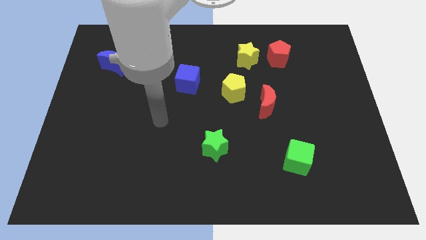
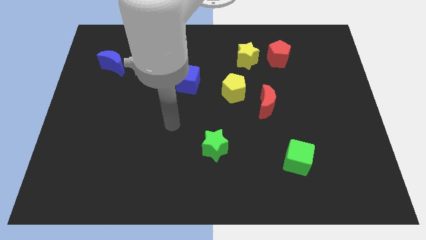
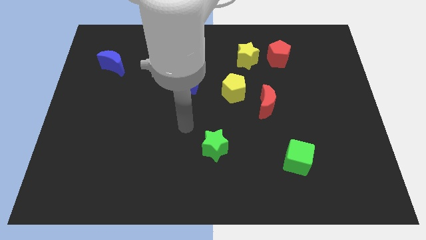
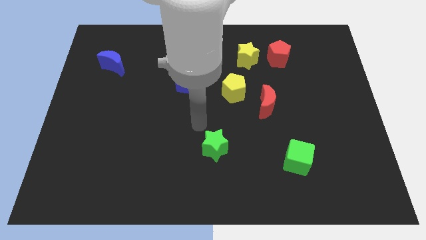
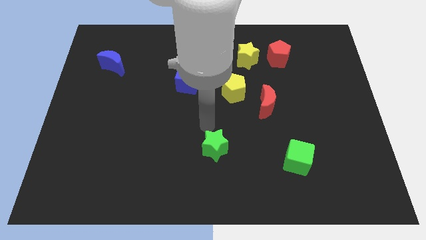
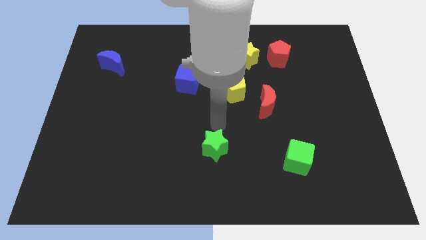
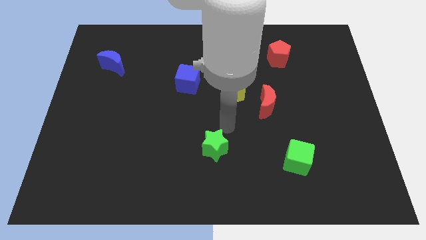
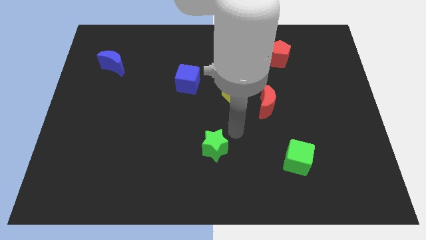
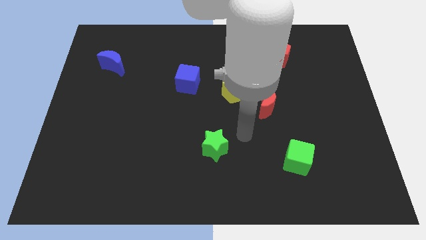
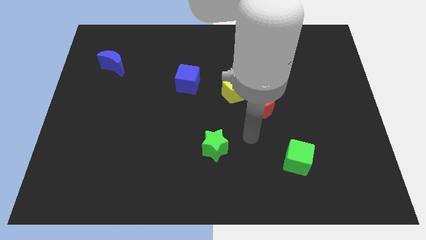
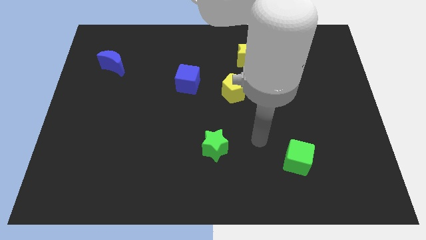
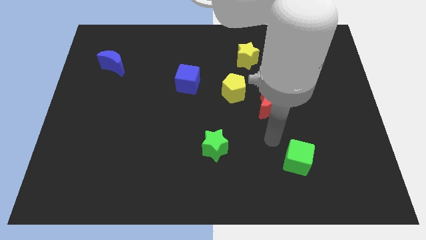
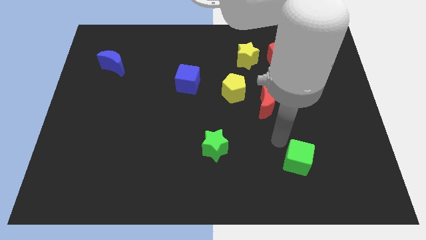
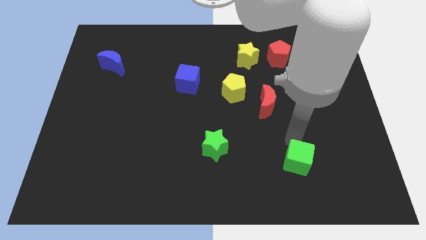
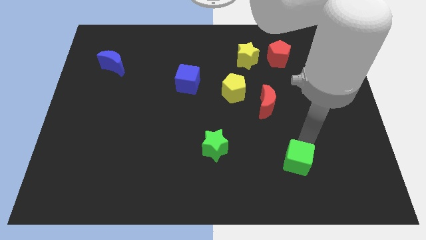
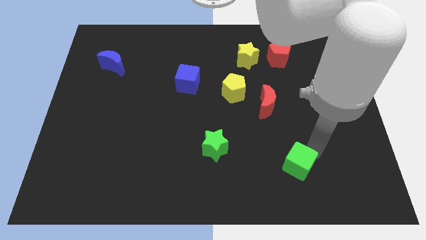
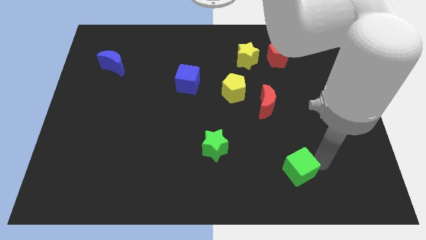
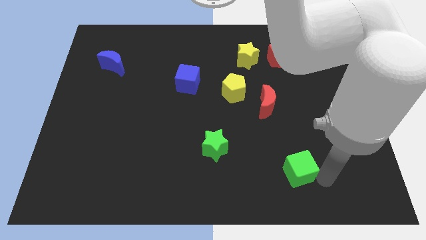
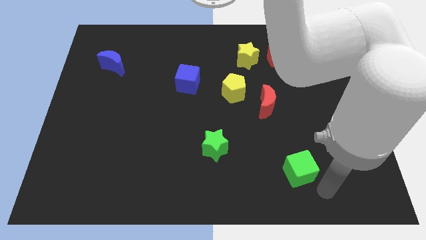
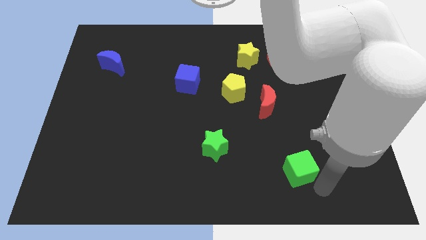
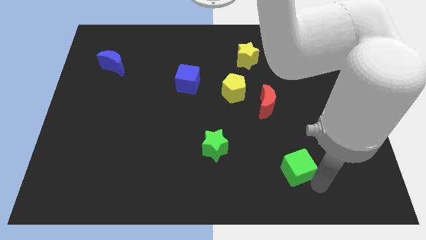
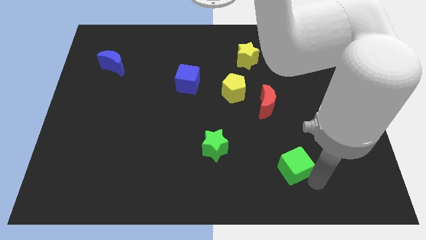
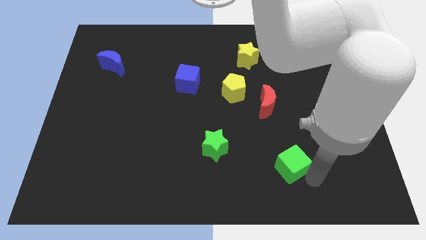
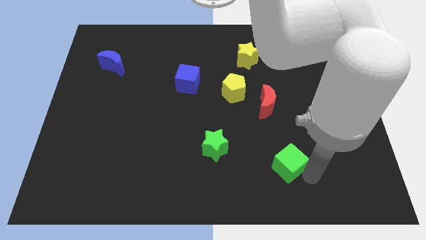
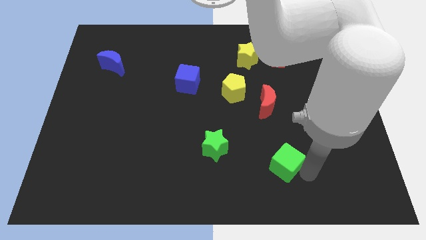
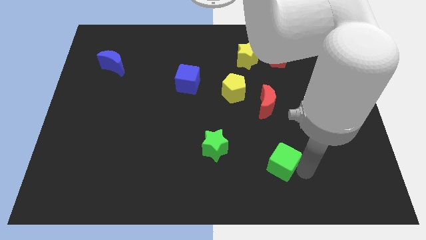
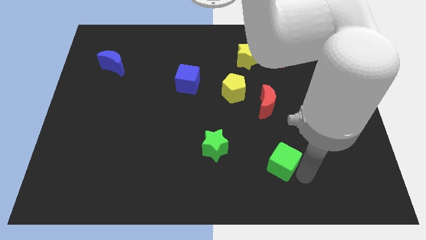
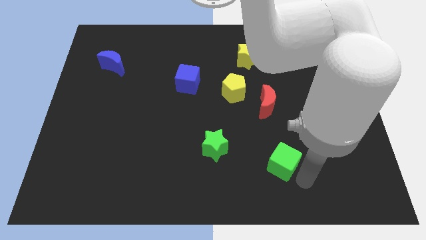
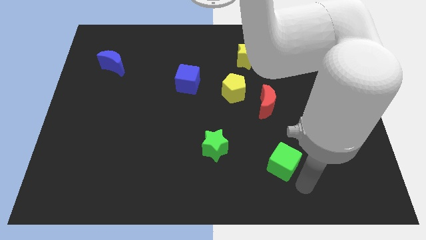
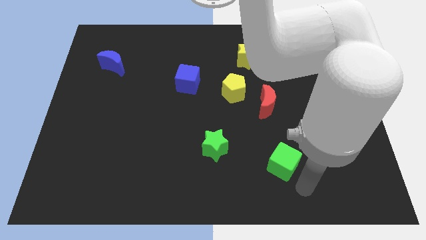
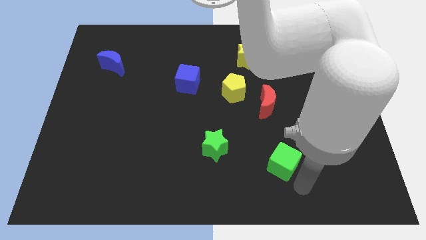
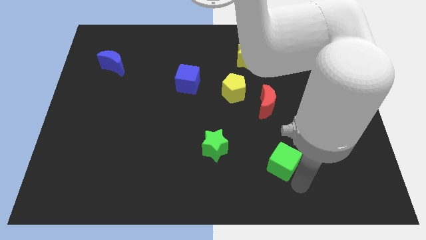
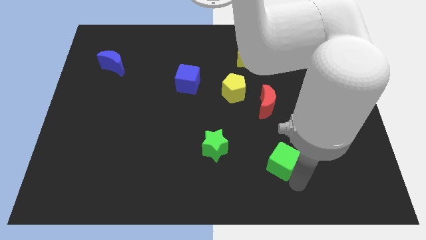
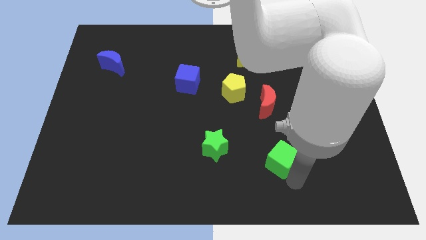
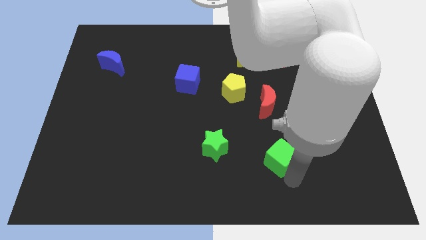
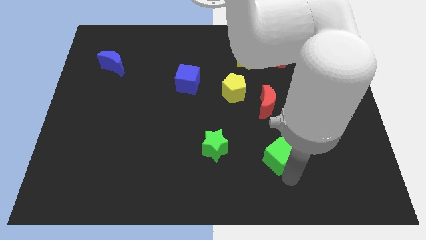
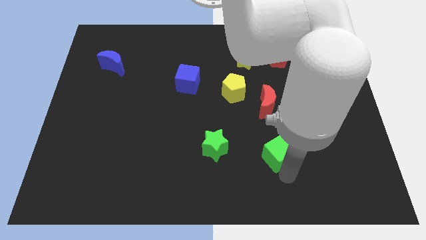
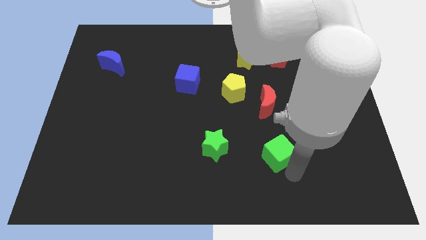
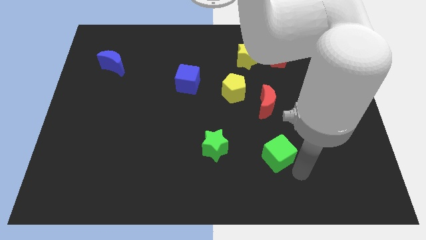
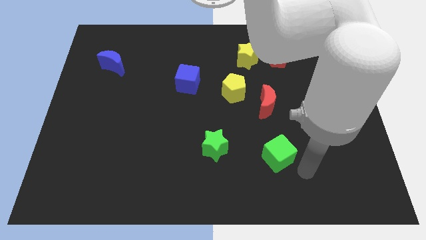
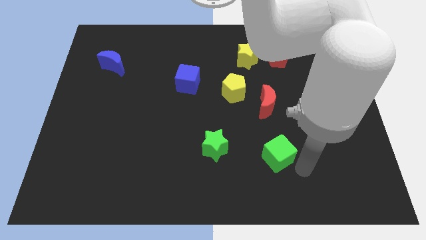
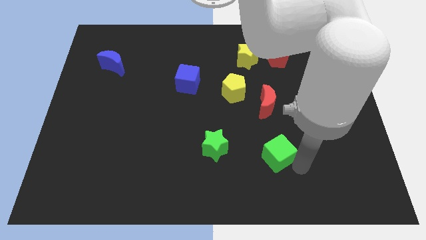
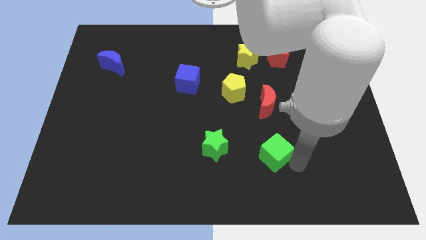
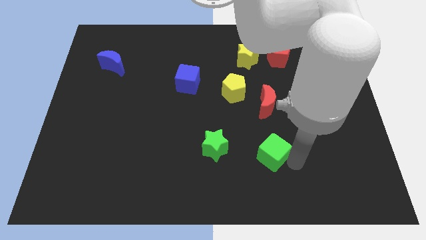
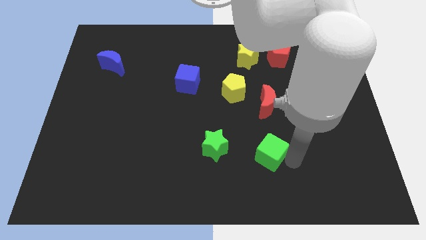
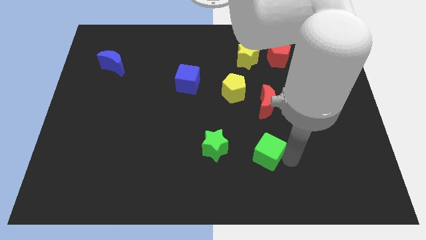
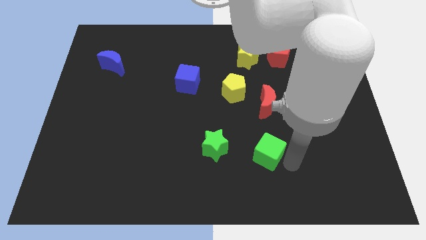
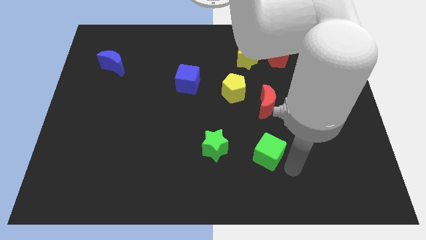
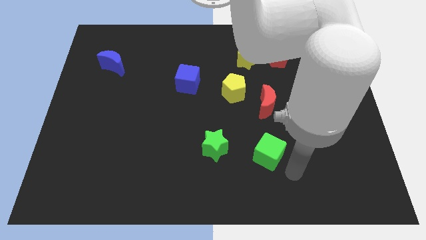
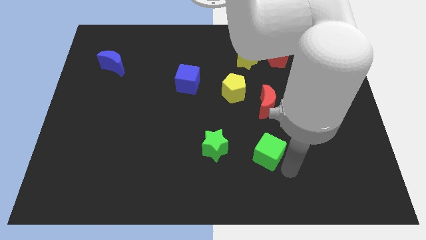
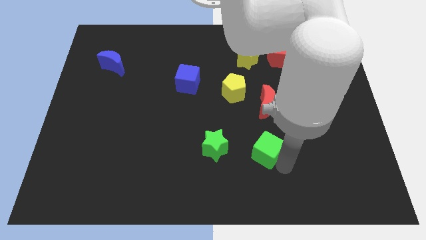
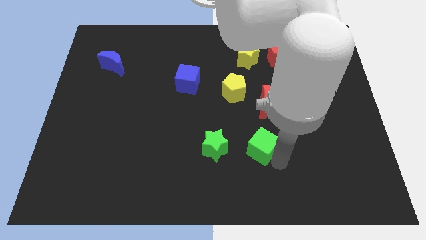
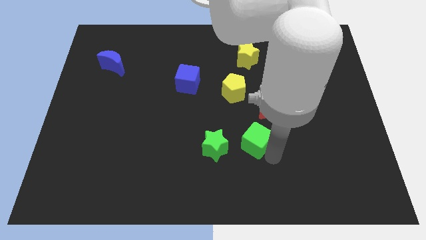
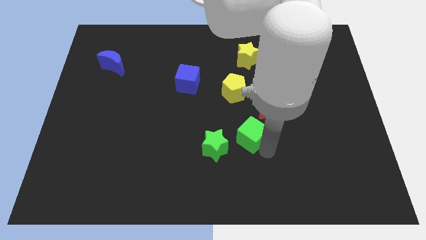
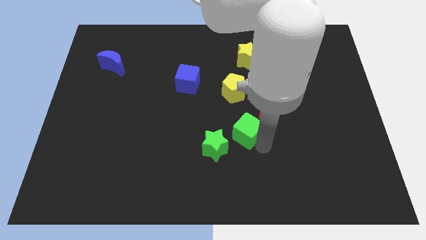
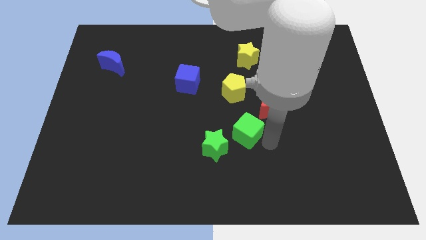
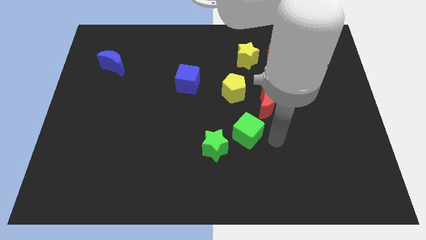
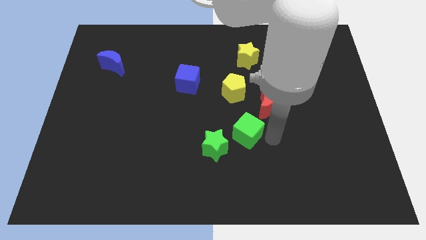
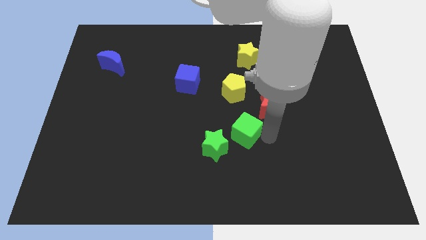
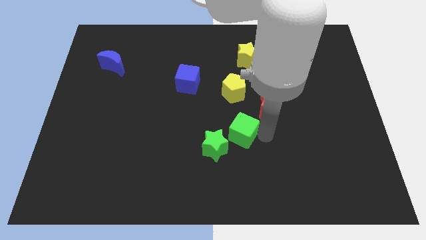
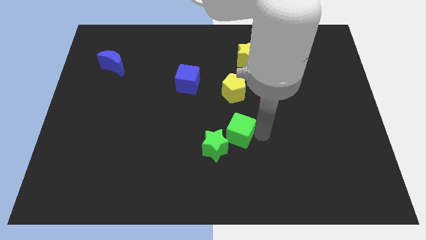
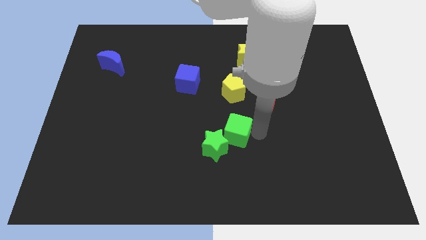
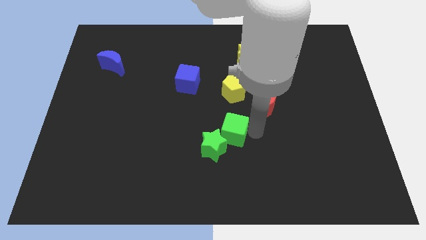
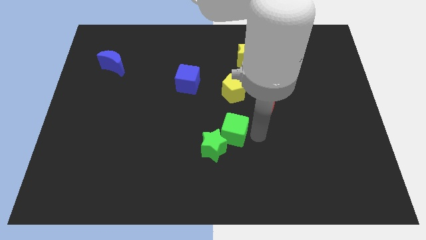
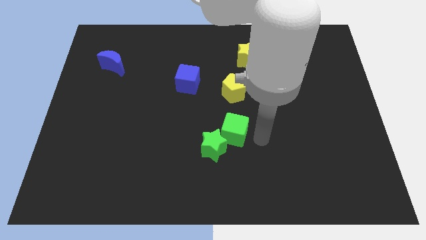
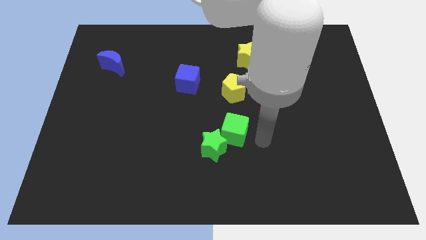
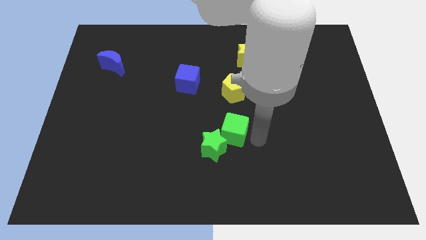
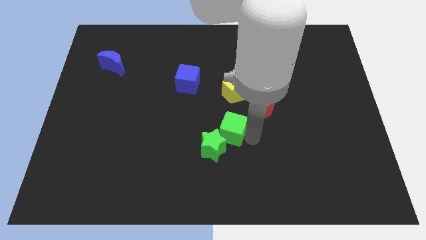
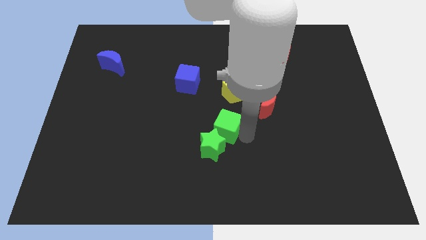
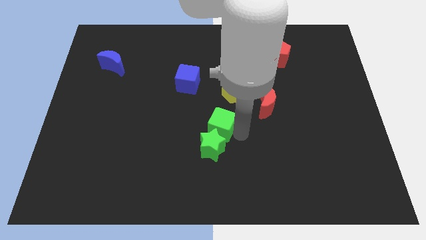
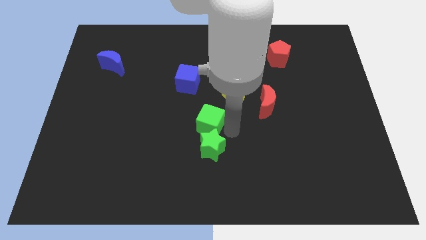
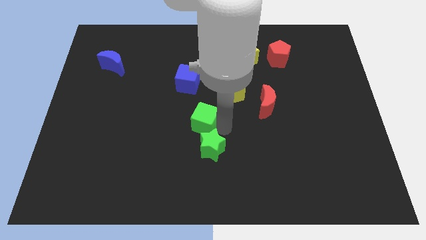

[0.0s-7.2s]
put the green cube to the bottom side of the blue cube
